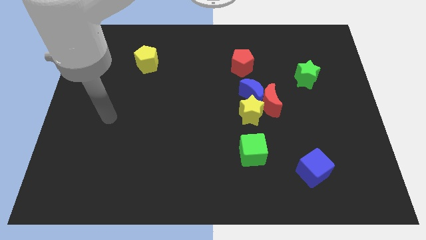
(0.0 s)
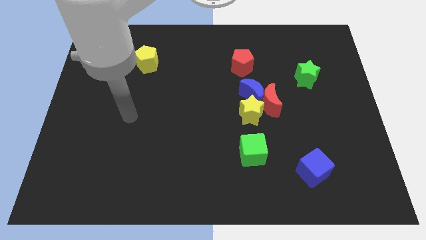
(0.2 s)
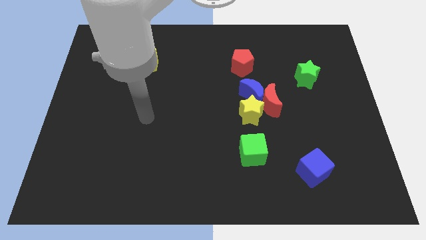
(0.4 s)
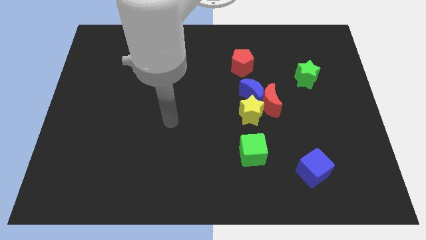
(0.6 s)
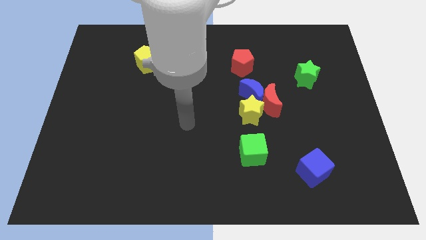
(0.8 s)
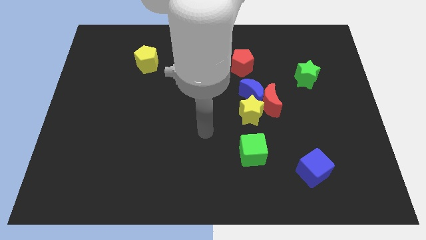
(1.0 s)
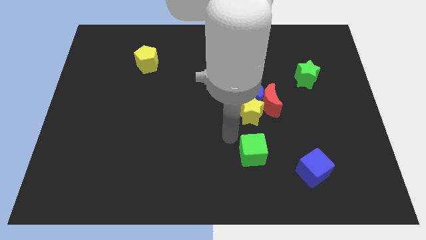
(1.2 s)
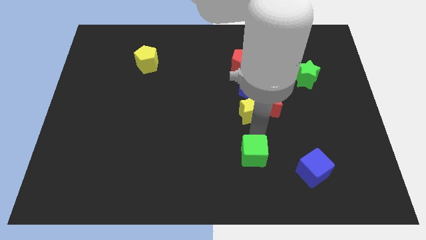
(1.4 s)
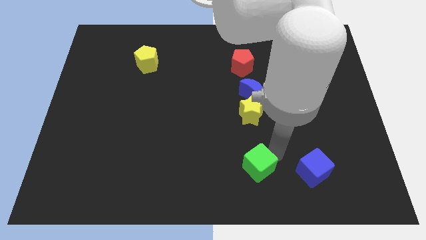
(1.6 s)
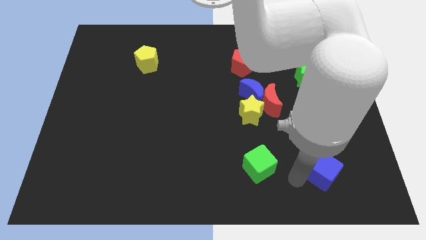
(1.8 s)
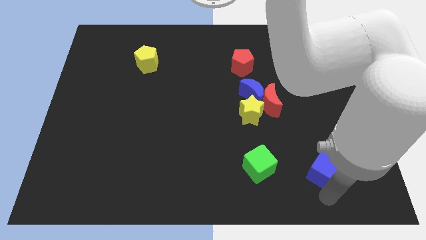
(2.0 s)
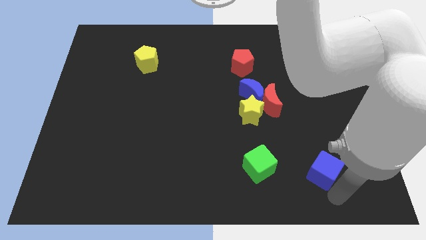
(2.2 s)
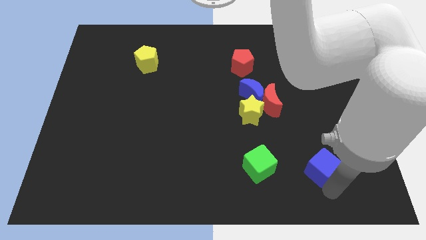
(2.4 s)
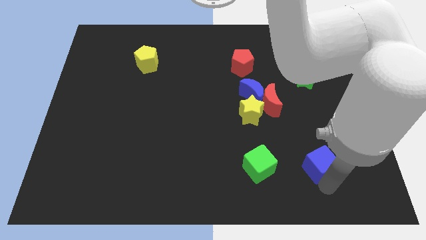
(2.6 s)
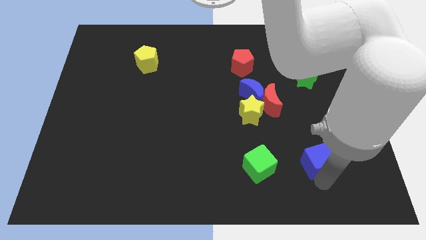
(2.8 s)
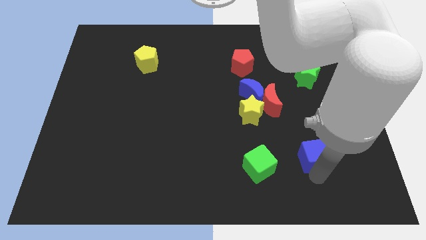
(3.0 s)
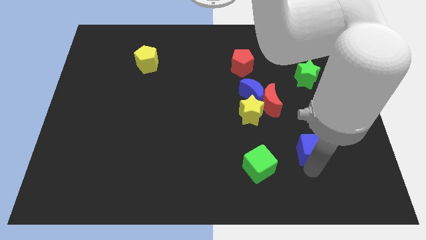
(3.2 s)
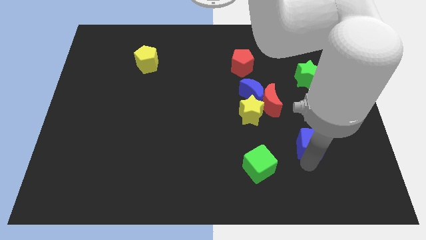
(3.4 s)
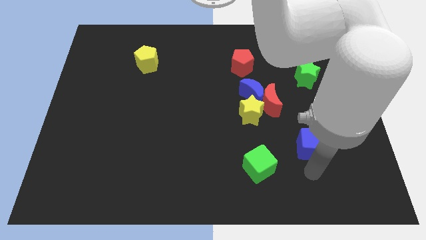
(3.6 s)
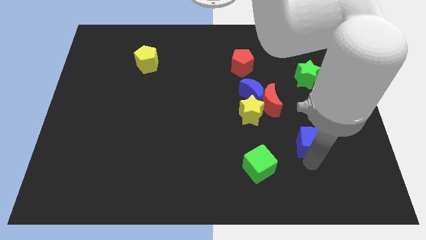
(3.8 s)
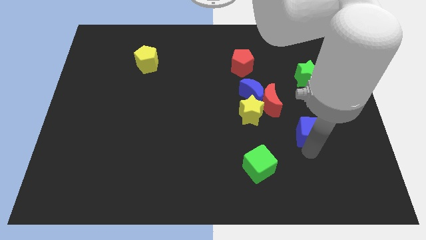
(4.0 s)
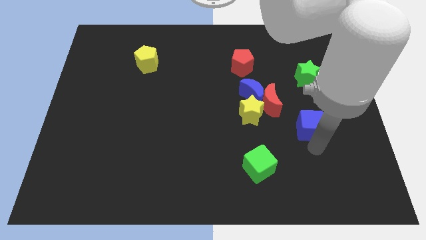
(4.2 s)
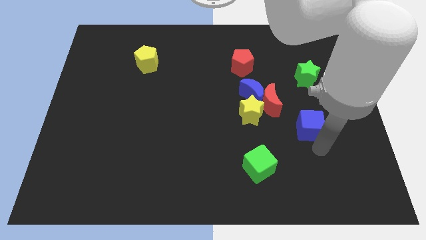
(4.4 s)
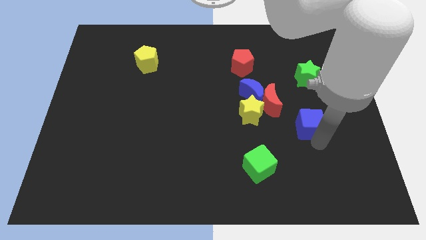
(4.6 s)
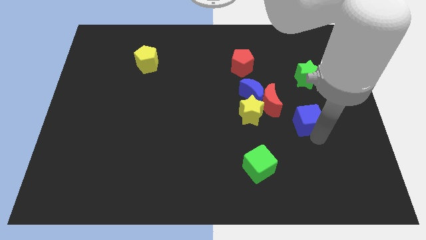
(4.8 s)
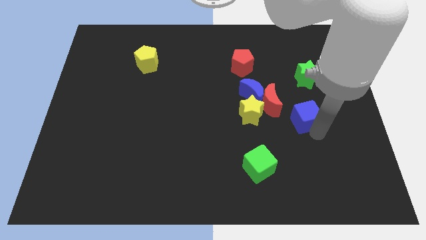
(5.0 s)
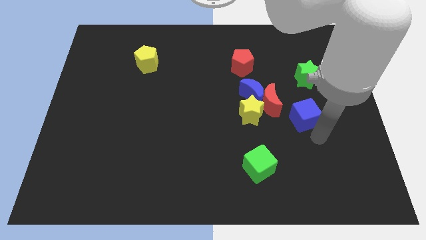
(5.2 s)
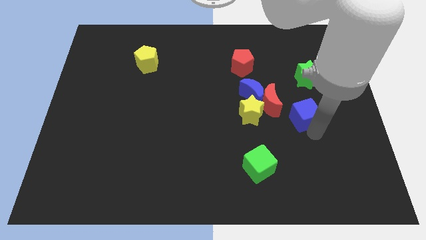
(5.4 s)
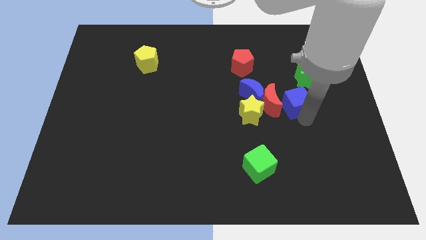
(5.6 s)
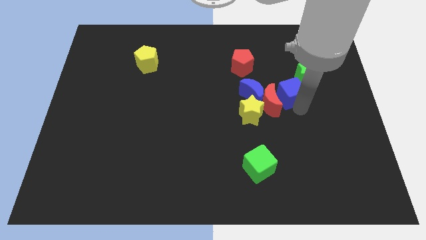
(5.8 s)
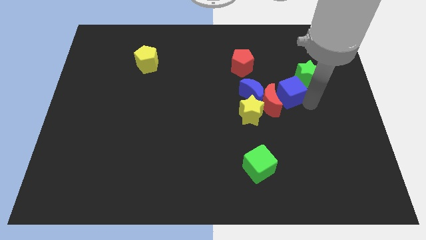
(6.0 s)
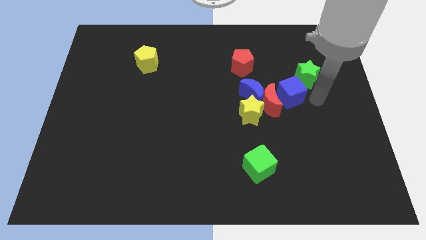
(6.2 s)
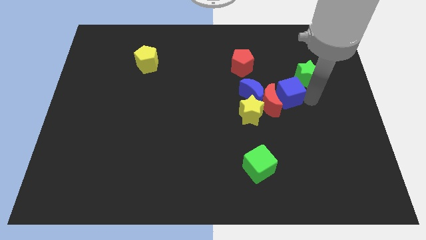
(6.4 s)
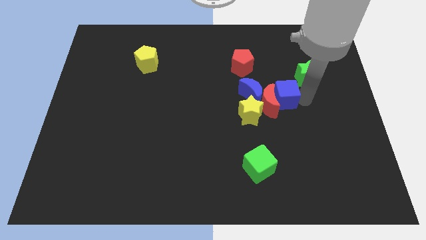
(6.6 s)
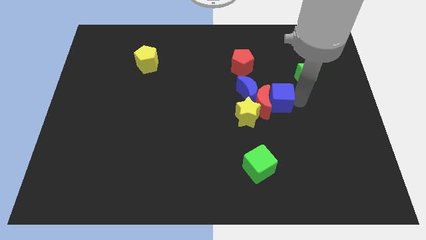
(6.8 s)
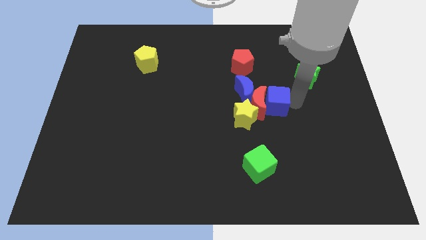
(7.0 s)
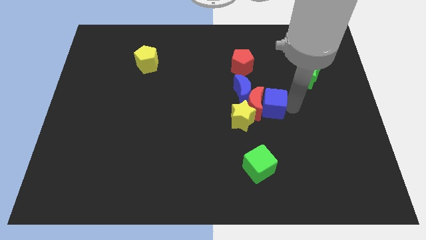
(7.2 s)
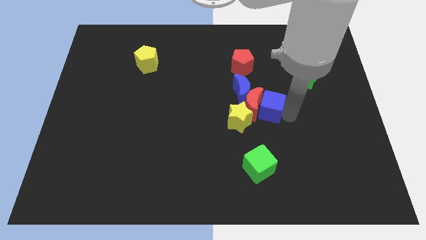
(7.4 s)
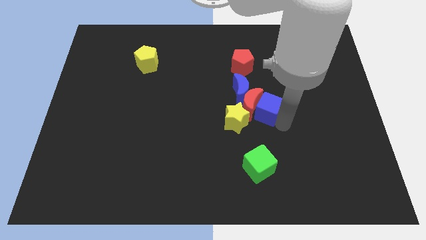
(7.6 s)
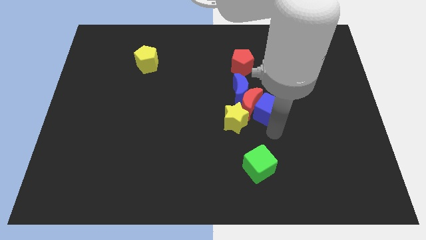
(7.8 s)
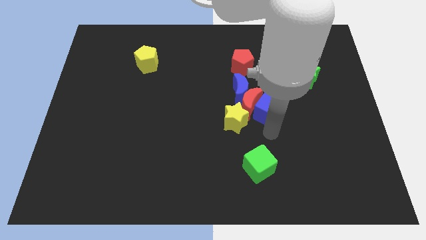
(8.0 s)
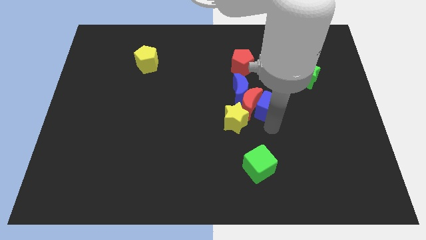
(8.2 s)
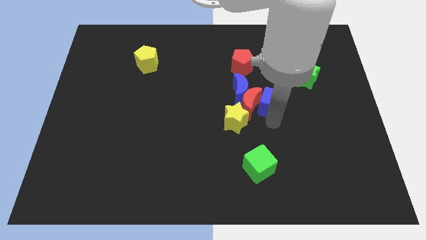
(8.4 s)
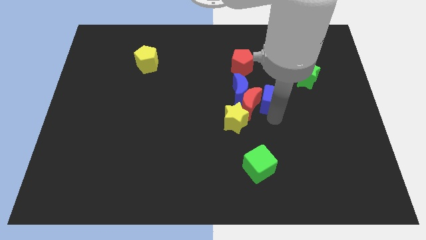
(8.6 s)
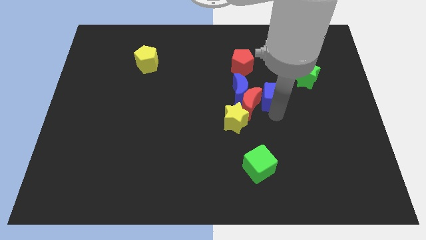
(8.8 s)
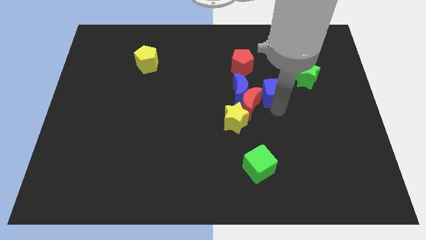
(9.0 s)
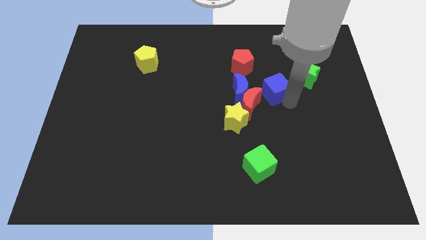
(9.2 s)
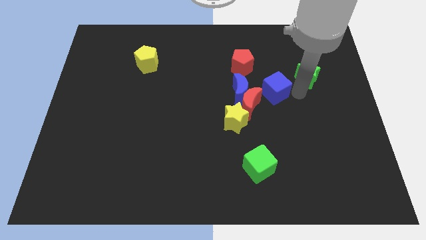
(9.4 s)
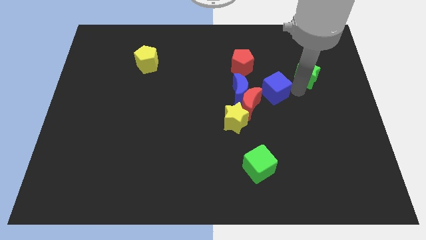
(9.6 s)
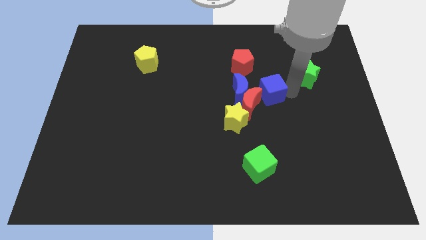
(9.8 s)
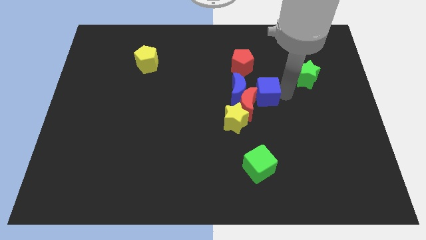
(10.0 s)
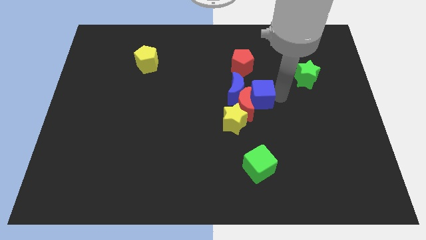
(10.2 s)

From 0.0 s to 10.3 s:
move the blue cube close to the blue moon

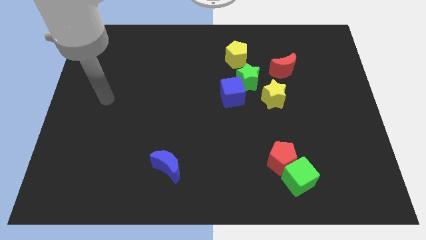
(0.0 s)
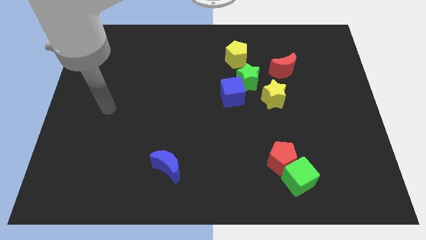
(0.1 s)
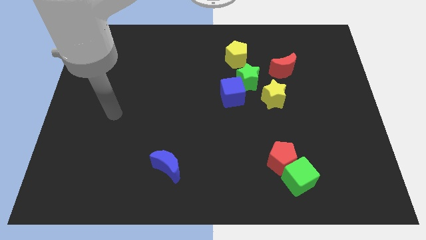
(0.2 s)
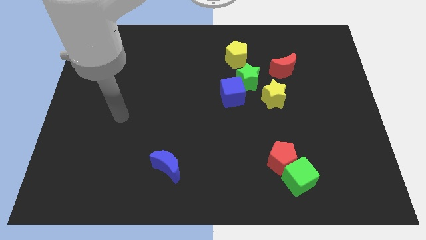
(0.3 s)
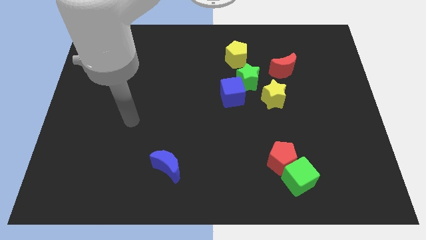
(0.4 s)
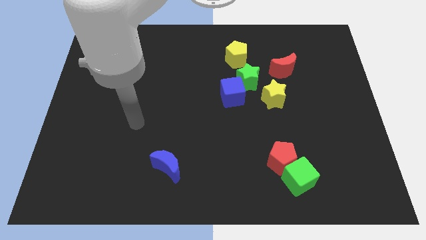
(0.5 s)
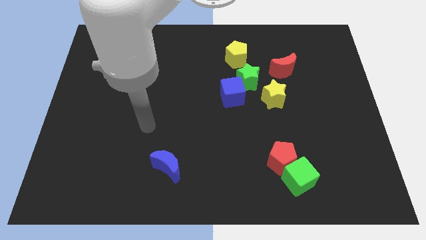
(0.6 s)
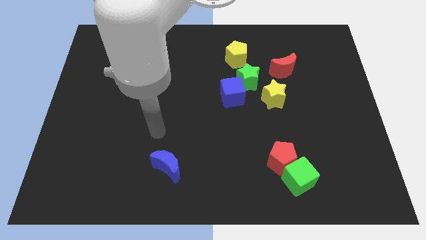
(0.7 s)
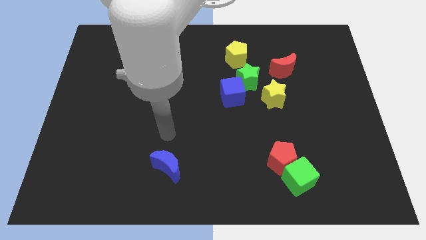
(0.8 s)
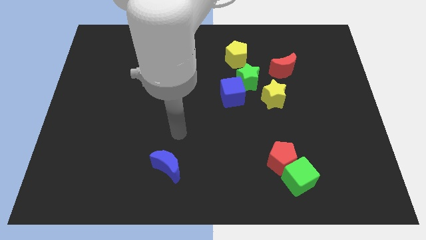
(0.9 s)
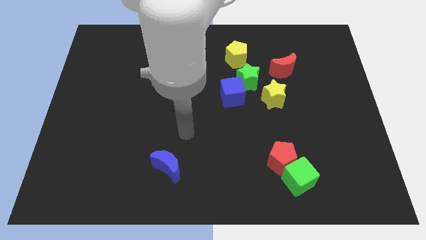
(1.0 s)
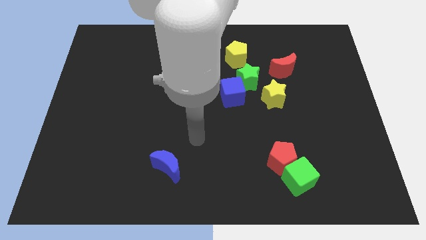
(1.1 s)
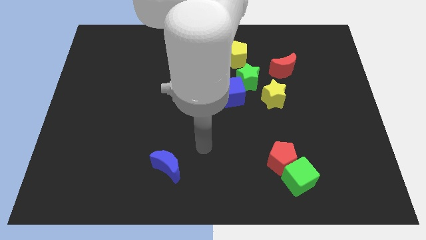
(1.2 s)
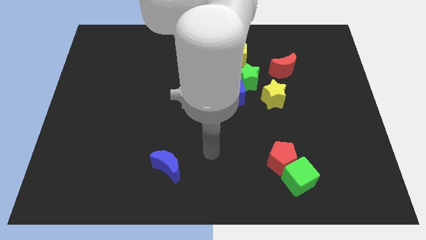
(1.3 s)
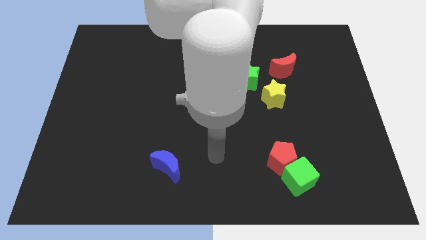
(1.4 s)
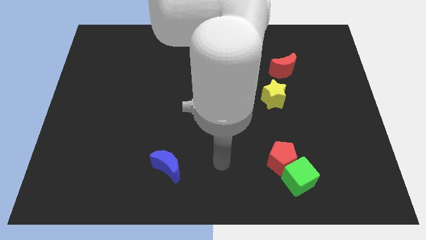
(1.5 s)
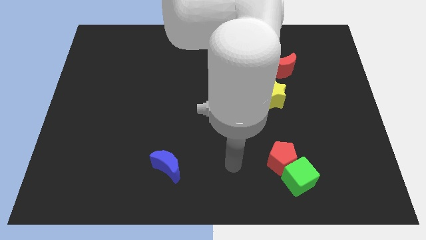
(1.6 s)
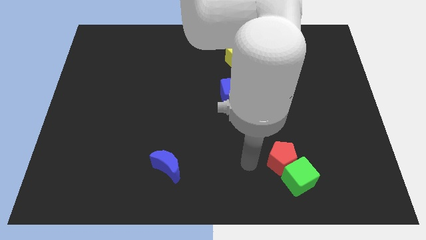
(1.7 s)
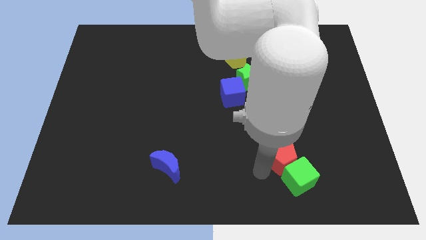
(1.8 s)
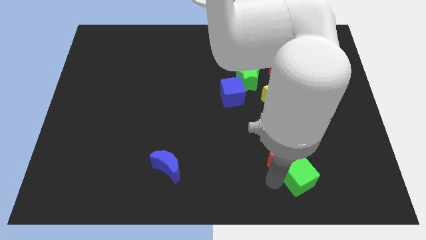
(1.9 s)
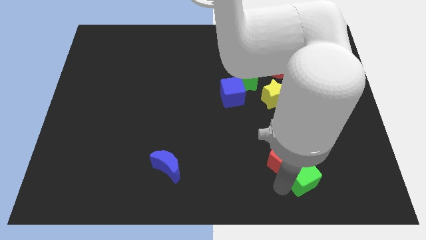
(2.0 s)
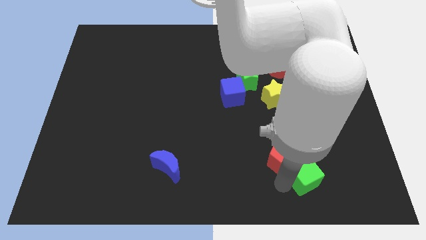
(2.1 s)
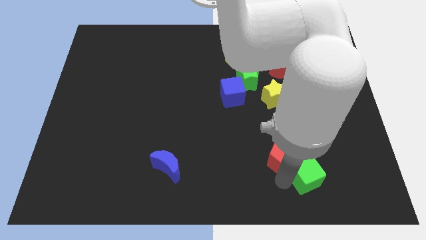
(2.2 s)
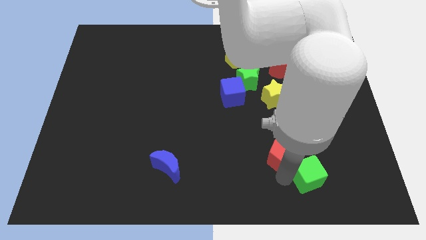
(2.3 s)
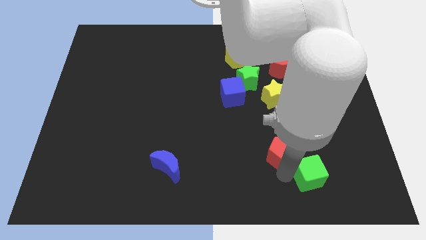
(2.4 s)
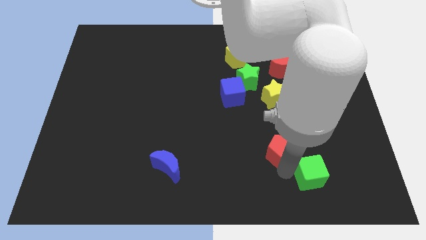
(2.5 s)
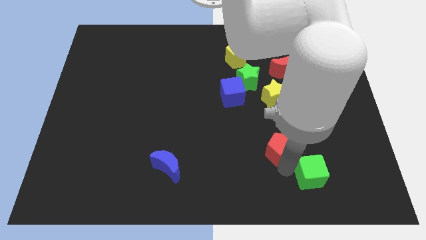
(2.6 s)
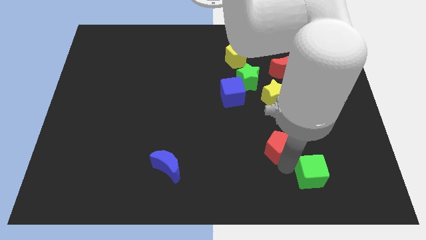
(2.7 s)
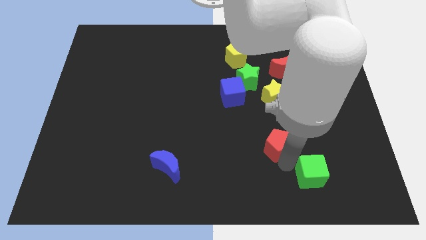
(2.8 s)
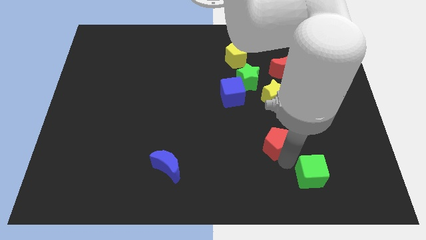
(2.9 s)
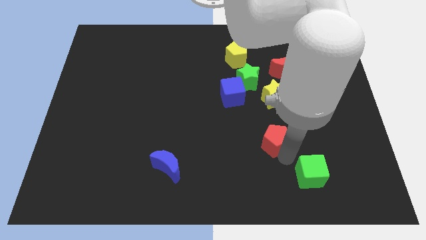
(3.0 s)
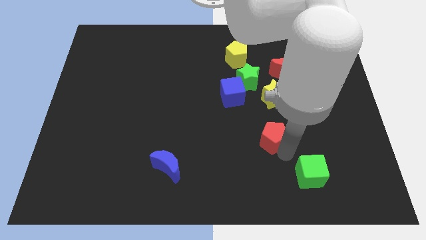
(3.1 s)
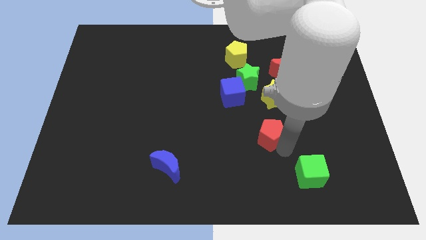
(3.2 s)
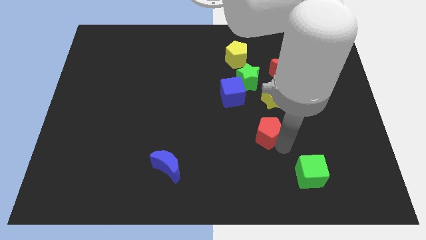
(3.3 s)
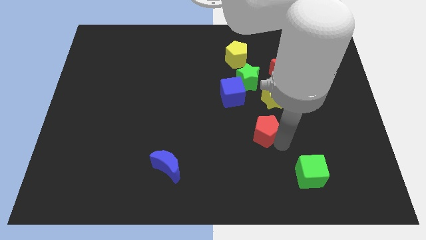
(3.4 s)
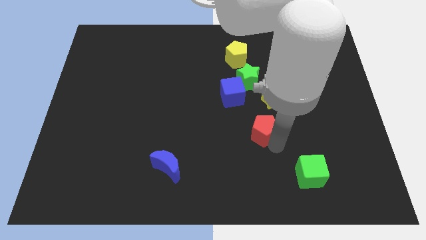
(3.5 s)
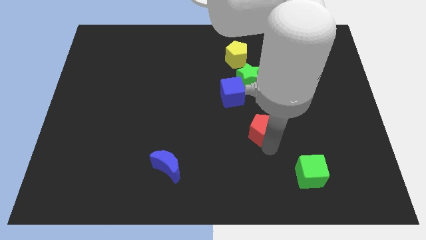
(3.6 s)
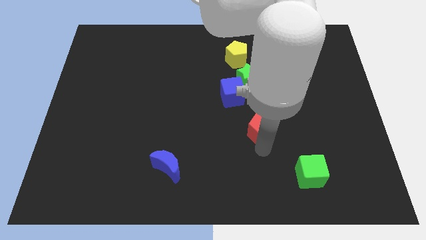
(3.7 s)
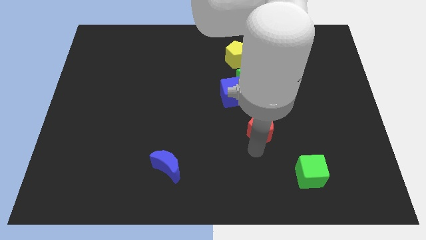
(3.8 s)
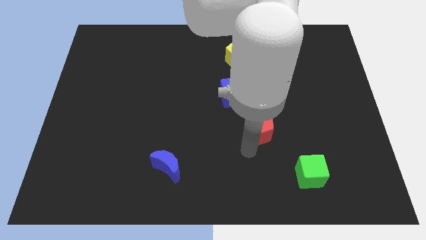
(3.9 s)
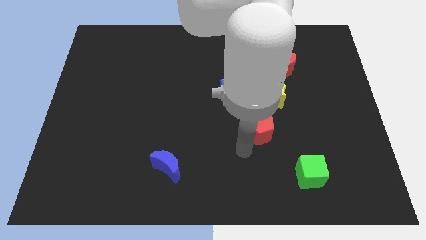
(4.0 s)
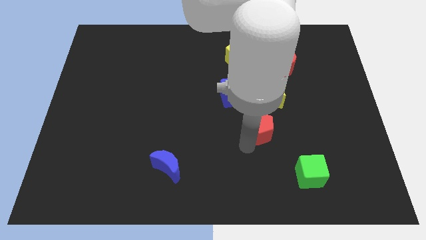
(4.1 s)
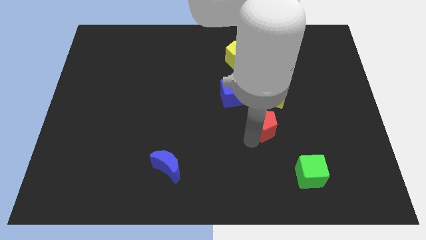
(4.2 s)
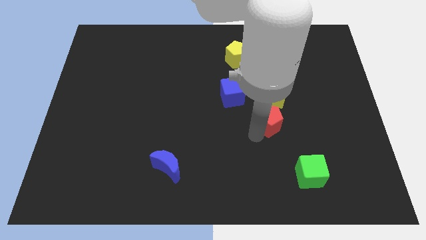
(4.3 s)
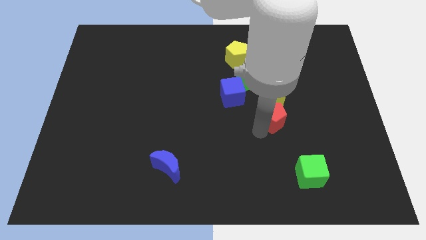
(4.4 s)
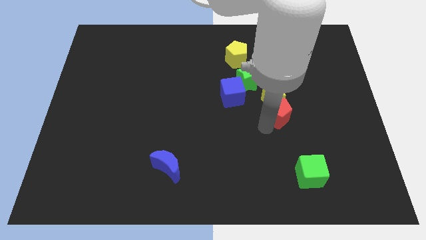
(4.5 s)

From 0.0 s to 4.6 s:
slide the red pentagon to the yellow star
